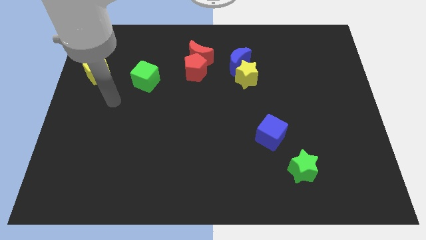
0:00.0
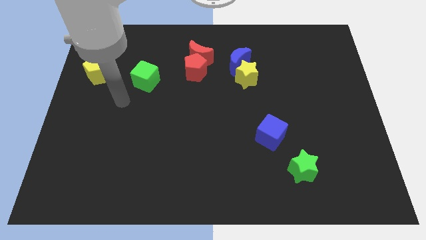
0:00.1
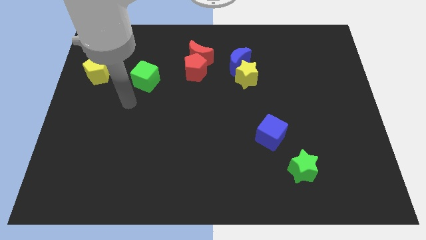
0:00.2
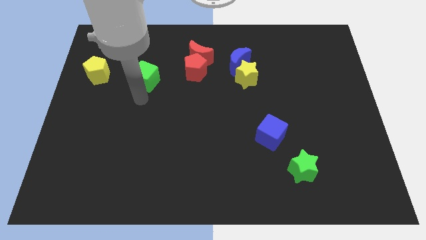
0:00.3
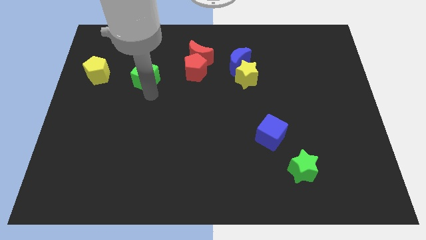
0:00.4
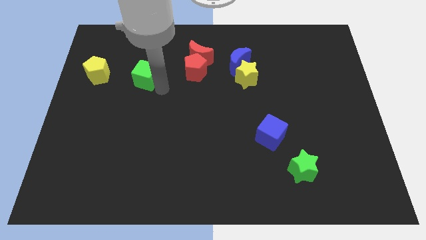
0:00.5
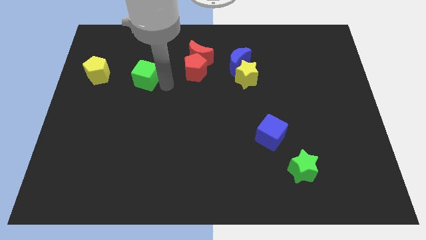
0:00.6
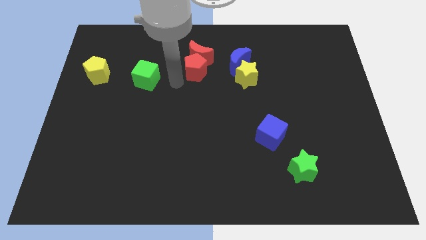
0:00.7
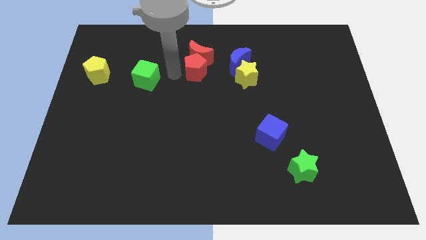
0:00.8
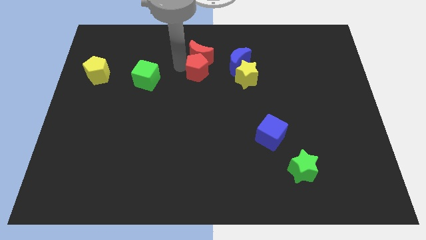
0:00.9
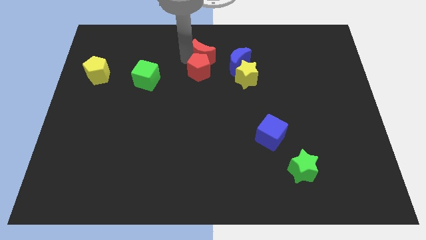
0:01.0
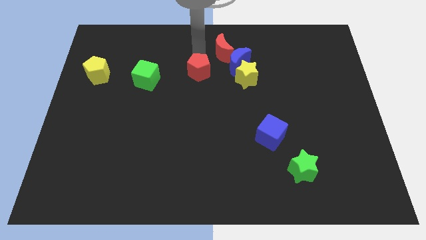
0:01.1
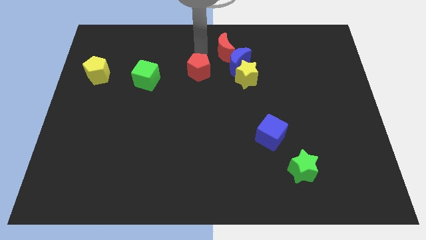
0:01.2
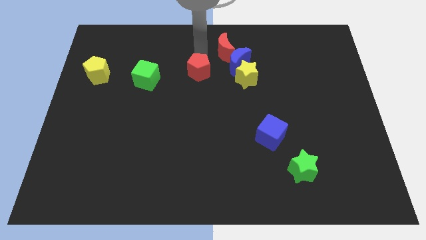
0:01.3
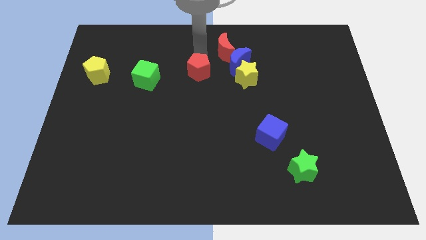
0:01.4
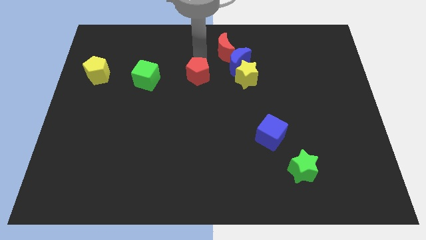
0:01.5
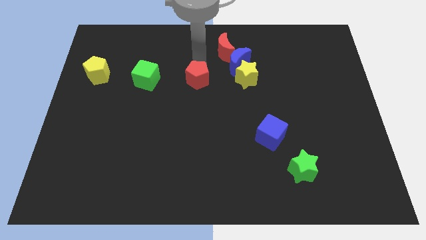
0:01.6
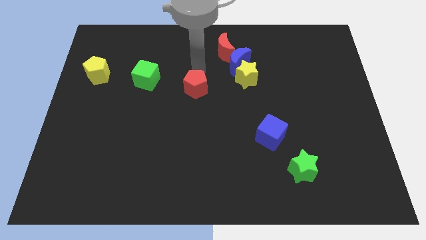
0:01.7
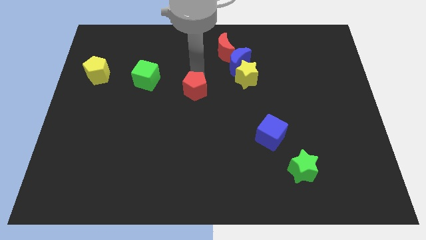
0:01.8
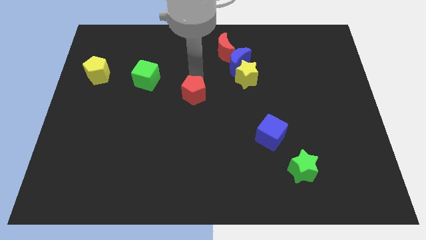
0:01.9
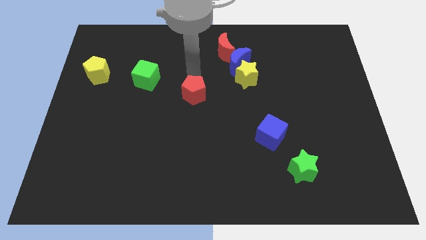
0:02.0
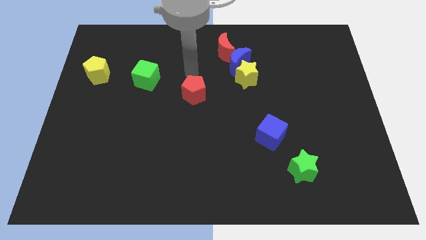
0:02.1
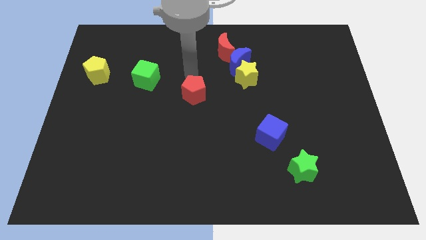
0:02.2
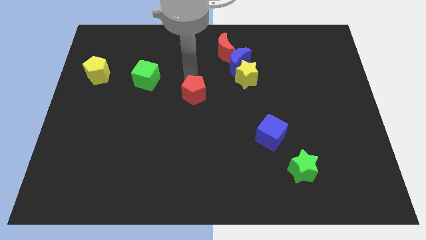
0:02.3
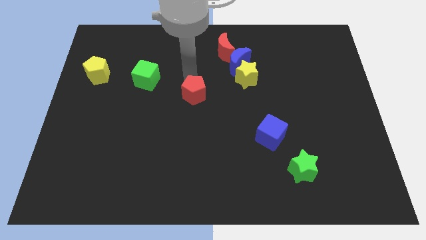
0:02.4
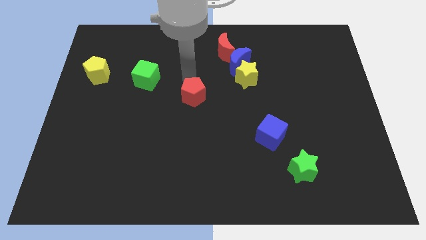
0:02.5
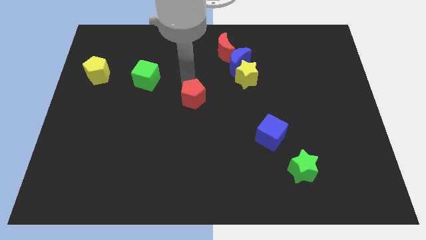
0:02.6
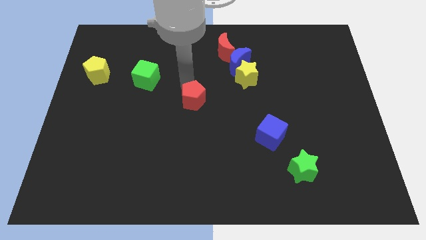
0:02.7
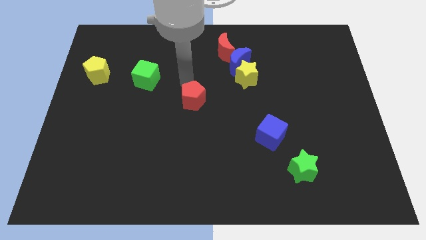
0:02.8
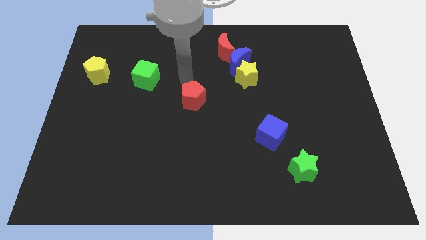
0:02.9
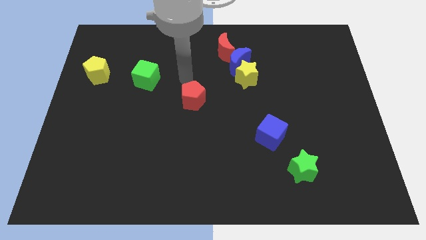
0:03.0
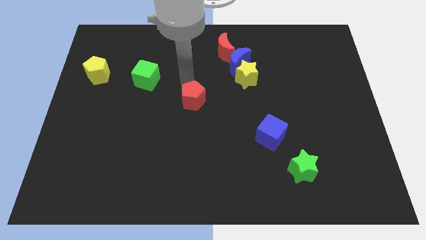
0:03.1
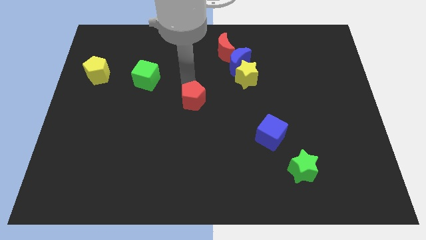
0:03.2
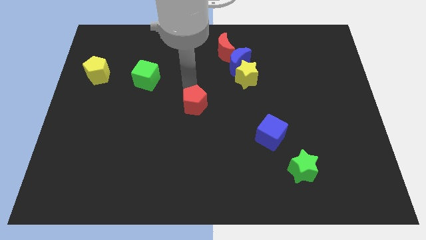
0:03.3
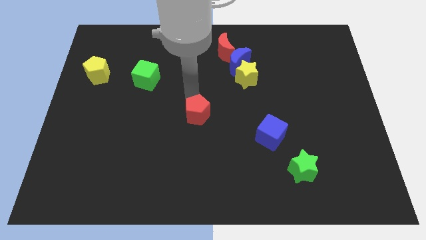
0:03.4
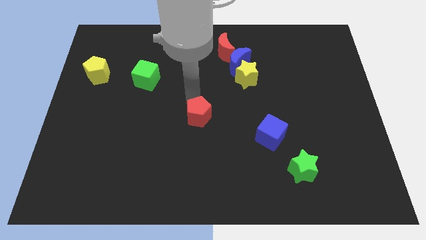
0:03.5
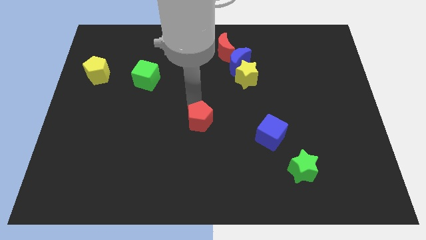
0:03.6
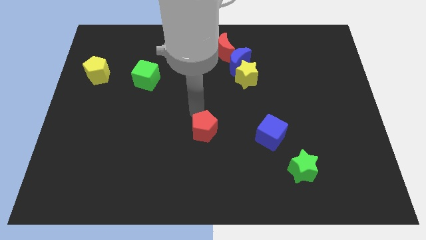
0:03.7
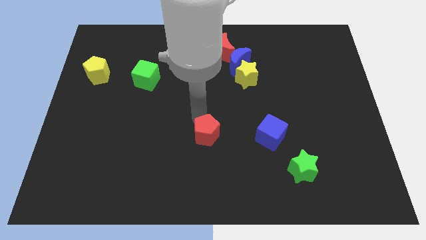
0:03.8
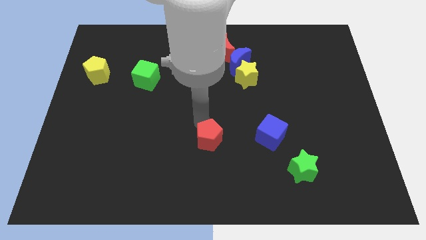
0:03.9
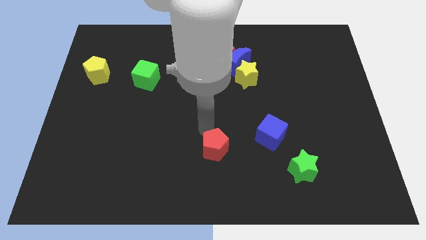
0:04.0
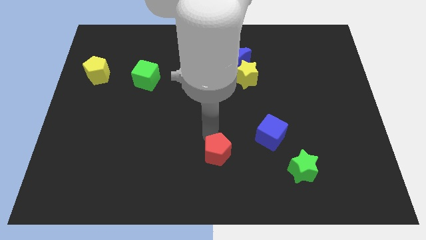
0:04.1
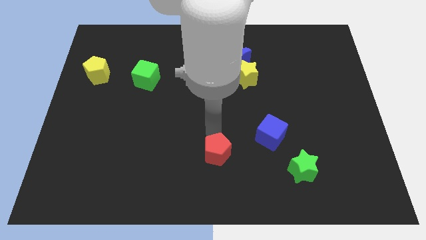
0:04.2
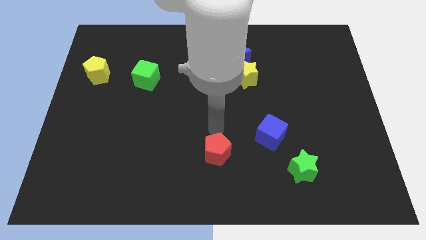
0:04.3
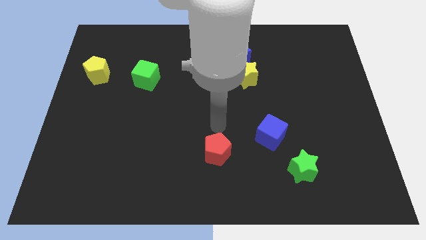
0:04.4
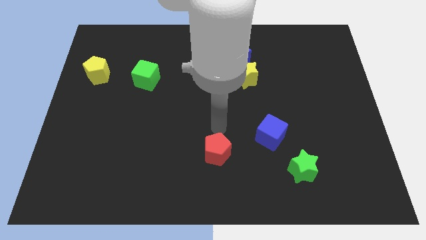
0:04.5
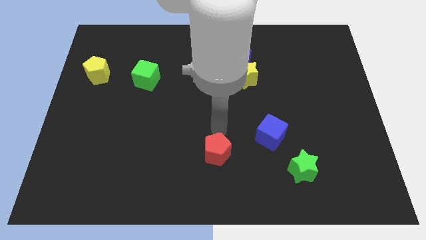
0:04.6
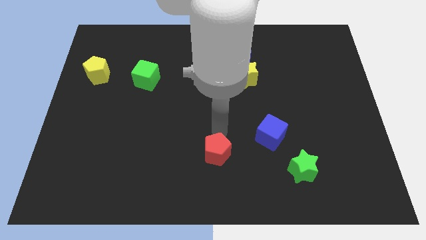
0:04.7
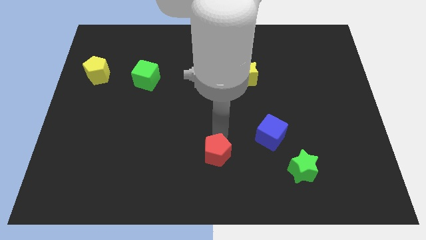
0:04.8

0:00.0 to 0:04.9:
push the red pentagon to the bottom

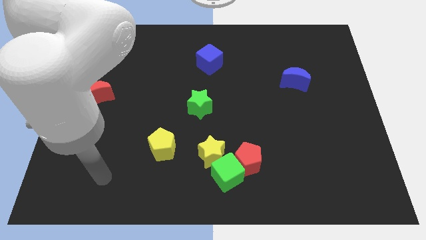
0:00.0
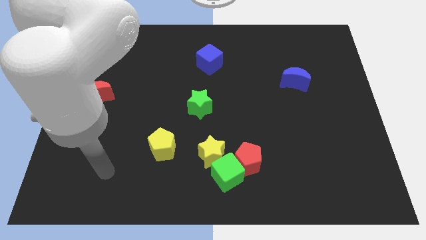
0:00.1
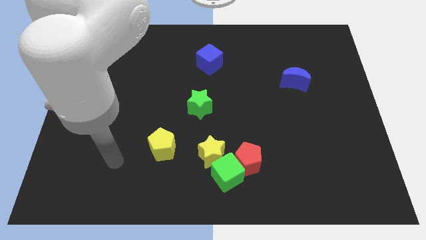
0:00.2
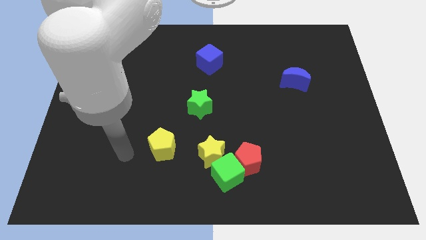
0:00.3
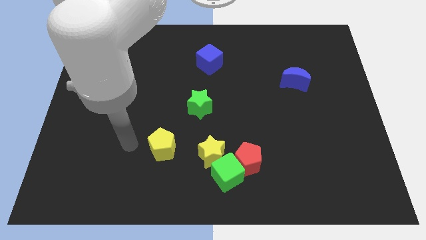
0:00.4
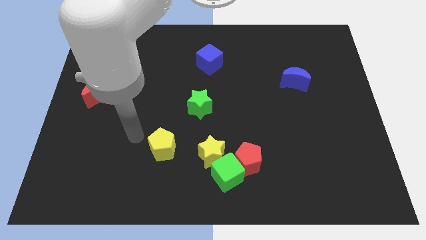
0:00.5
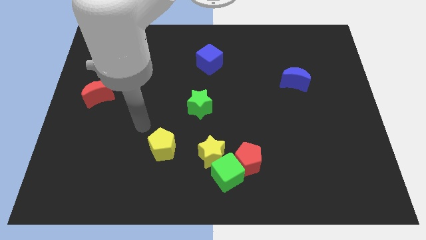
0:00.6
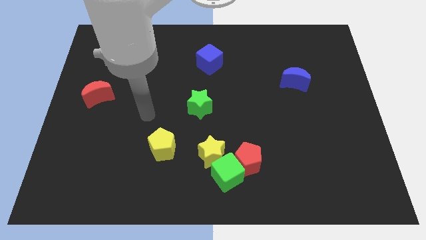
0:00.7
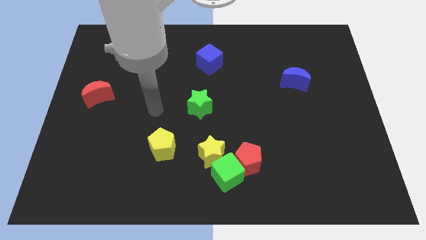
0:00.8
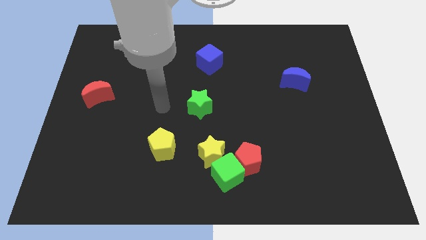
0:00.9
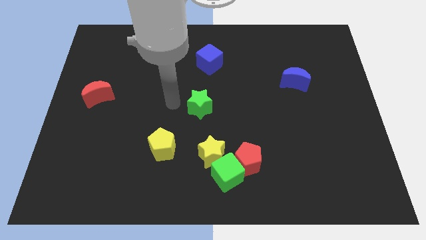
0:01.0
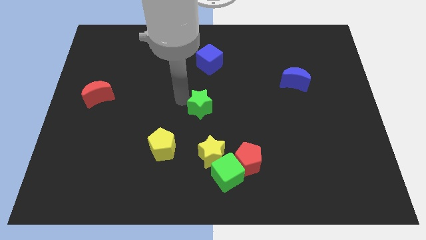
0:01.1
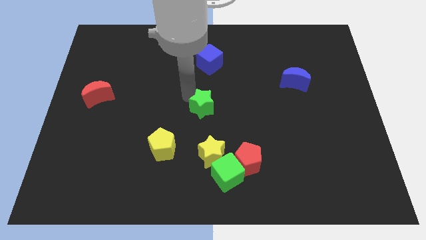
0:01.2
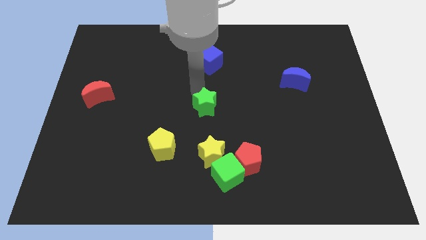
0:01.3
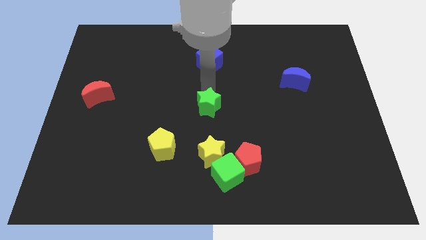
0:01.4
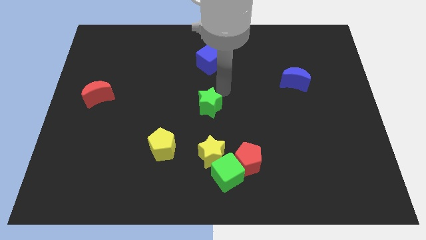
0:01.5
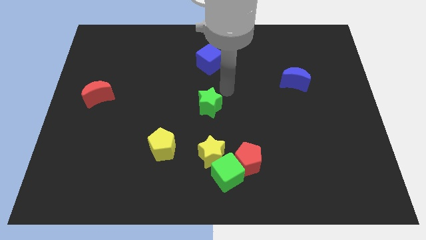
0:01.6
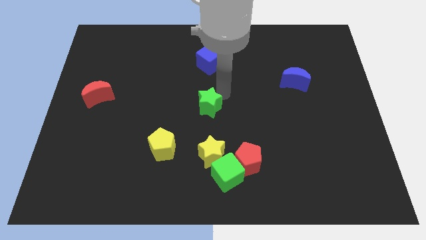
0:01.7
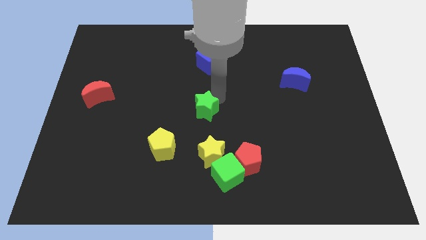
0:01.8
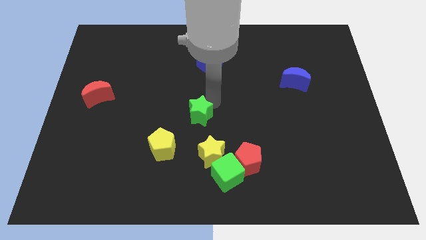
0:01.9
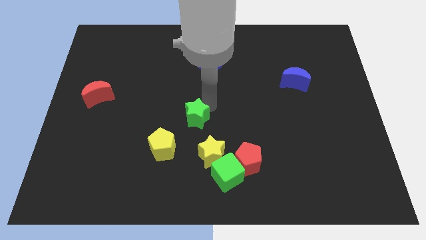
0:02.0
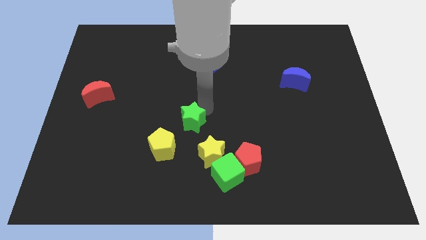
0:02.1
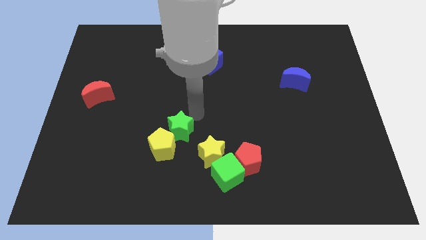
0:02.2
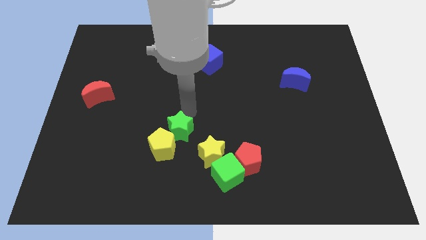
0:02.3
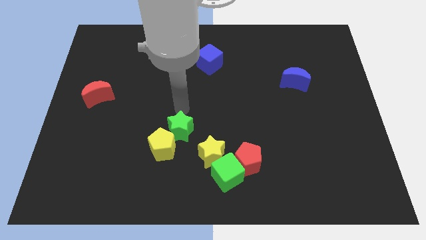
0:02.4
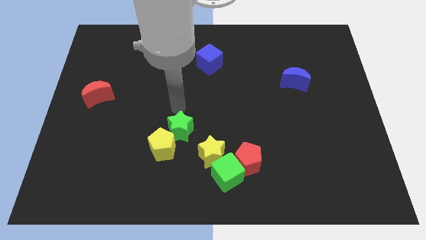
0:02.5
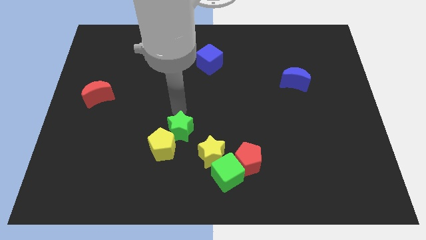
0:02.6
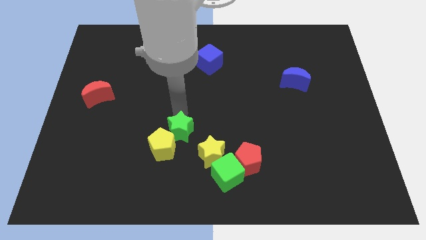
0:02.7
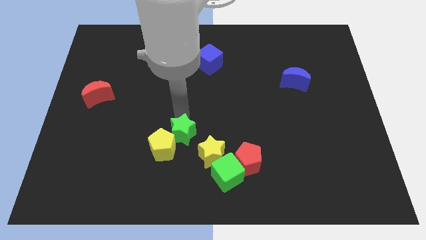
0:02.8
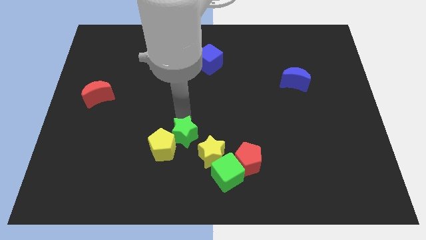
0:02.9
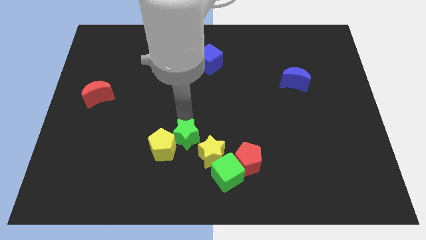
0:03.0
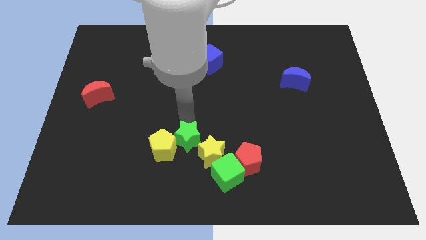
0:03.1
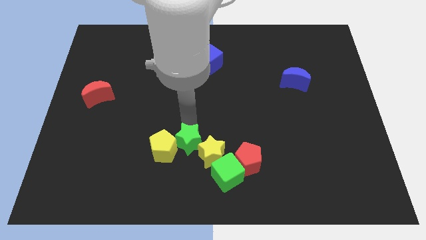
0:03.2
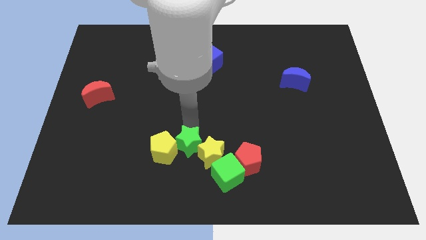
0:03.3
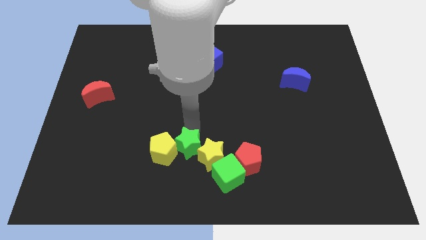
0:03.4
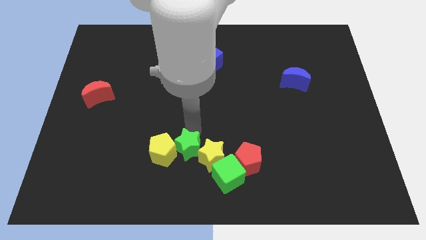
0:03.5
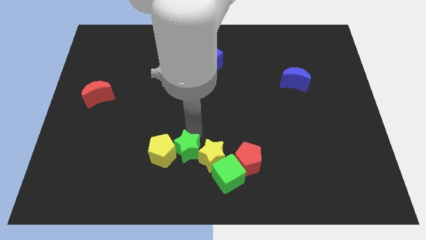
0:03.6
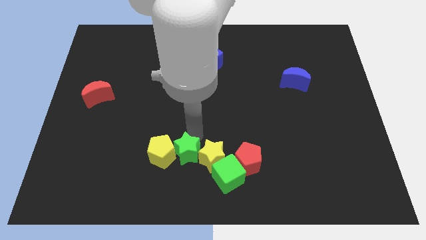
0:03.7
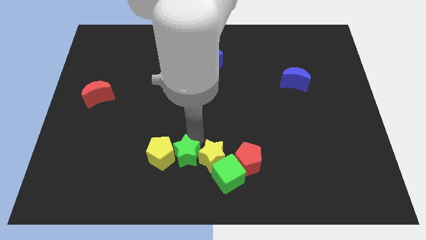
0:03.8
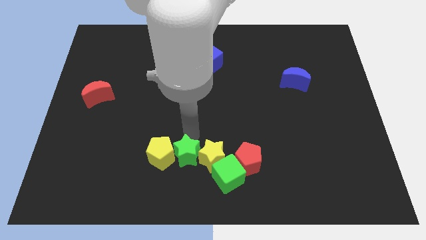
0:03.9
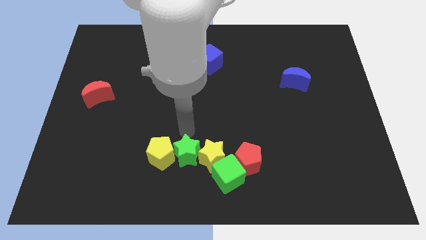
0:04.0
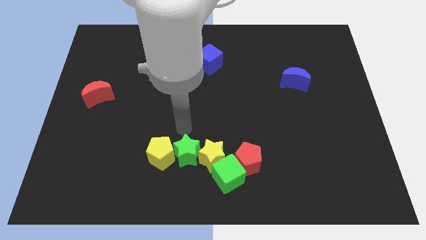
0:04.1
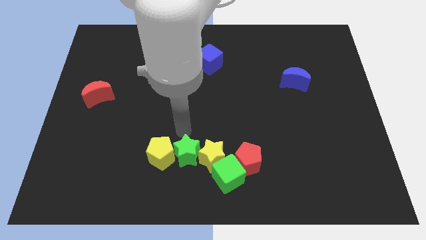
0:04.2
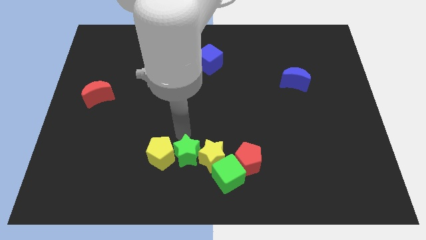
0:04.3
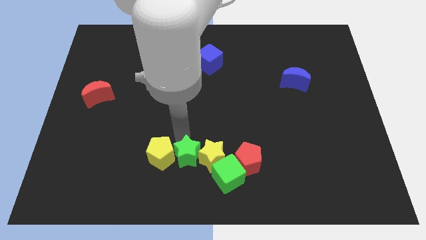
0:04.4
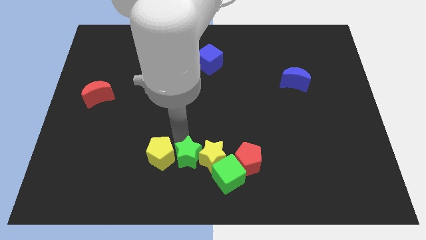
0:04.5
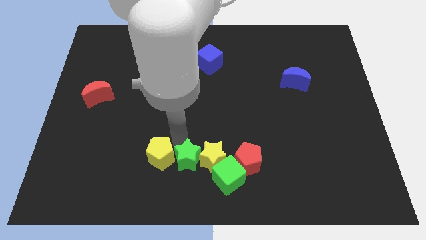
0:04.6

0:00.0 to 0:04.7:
push the green star to the bottom side
